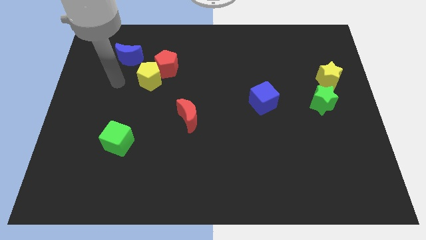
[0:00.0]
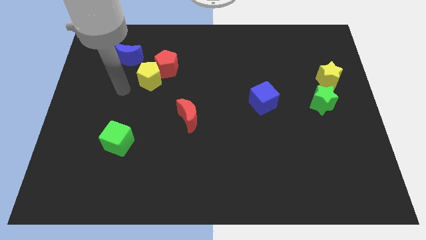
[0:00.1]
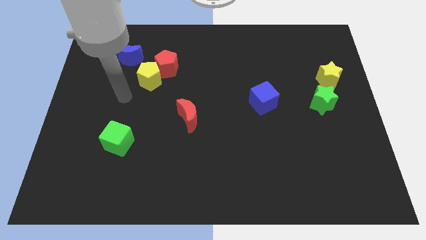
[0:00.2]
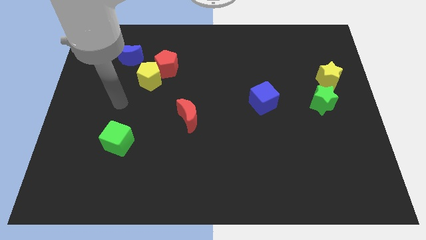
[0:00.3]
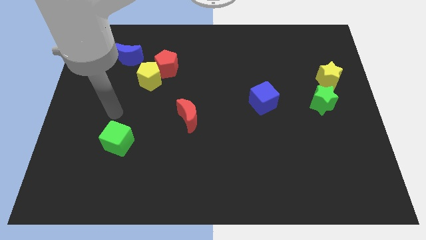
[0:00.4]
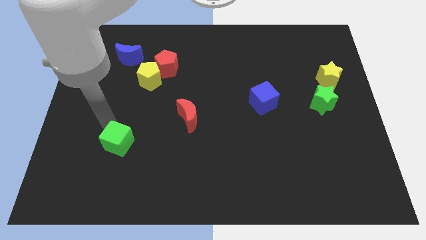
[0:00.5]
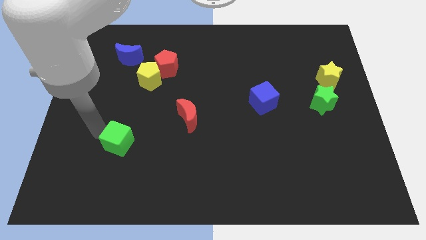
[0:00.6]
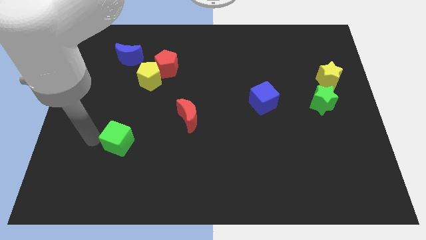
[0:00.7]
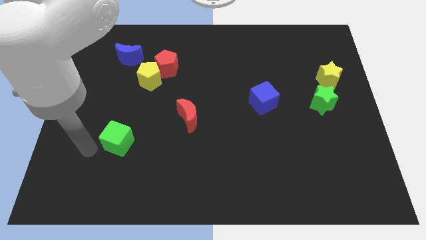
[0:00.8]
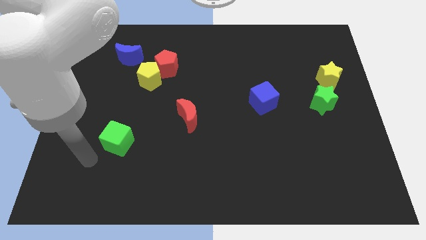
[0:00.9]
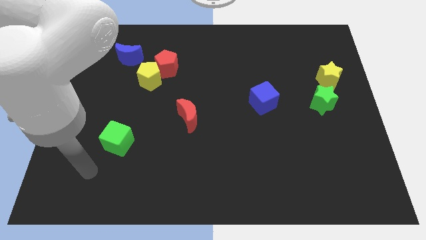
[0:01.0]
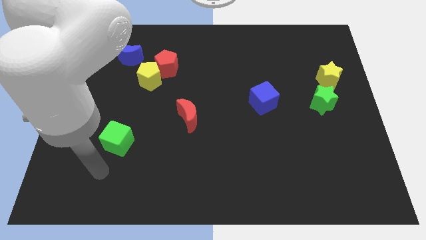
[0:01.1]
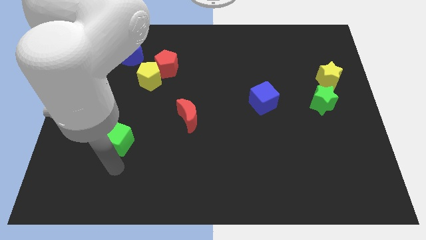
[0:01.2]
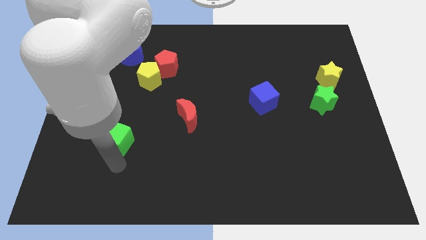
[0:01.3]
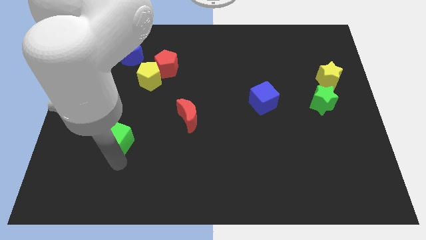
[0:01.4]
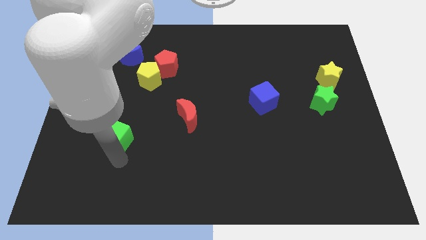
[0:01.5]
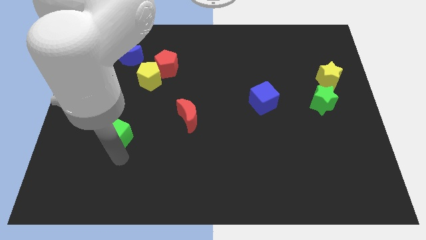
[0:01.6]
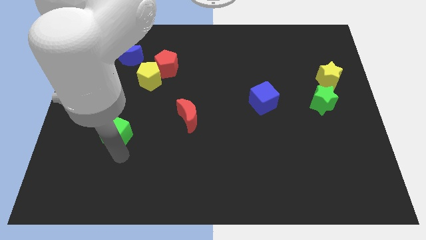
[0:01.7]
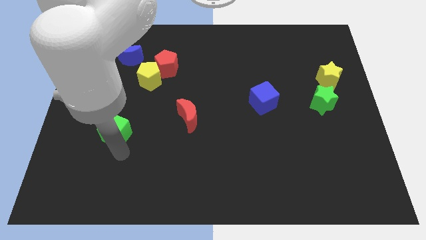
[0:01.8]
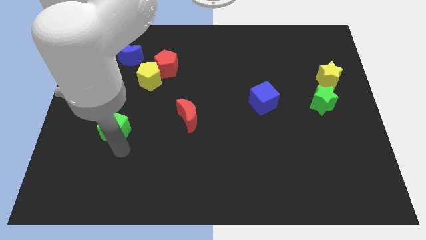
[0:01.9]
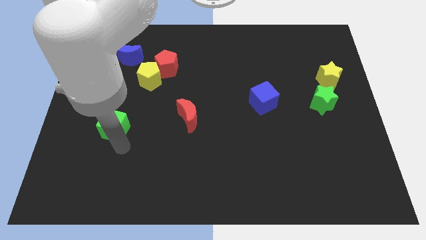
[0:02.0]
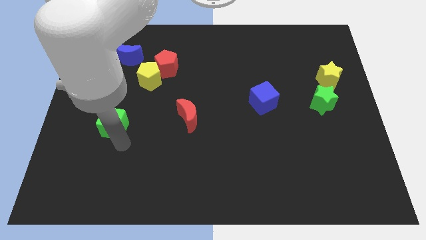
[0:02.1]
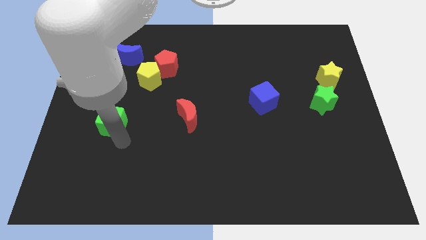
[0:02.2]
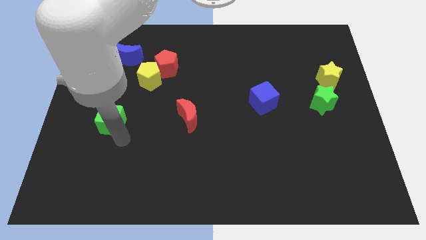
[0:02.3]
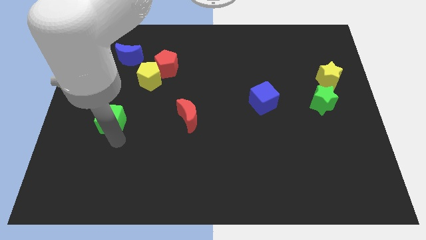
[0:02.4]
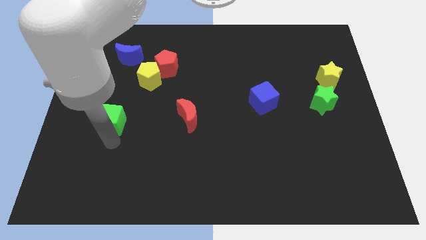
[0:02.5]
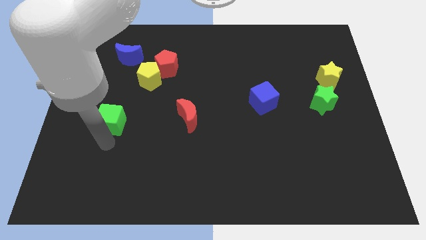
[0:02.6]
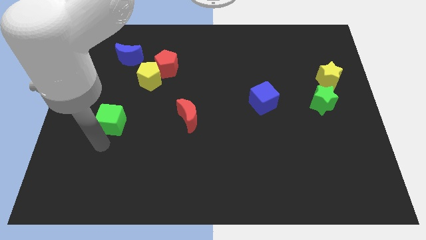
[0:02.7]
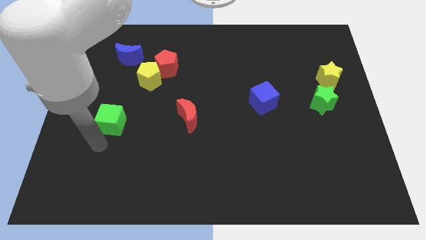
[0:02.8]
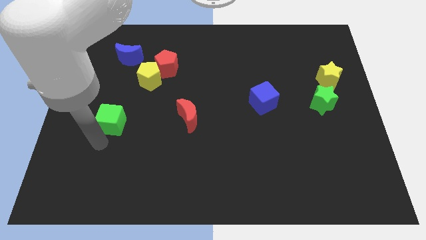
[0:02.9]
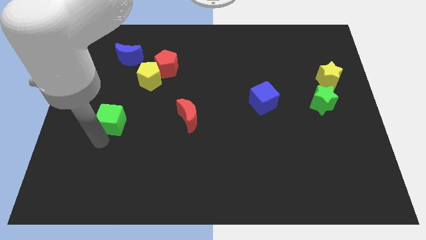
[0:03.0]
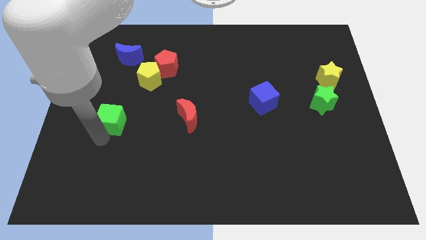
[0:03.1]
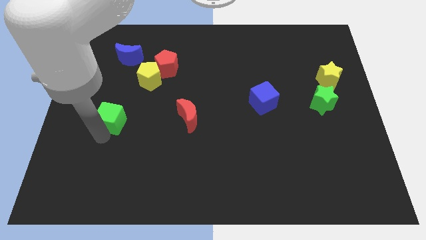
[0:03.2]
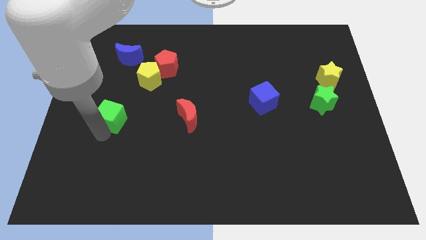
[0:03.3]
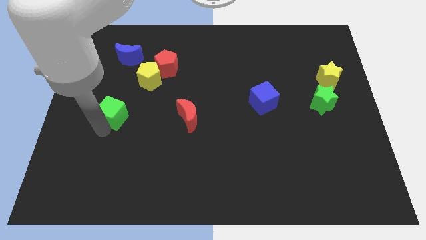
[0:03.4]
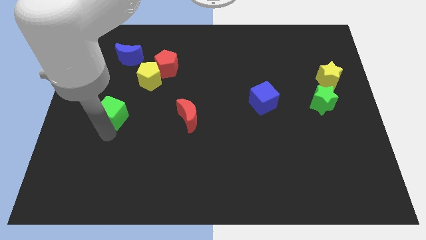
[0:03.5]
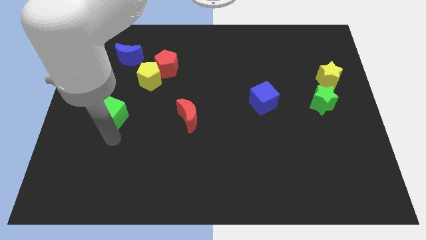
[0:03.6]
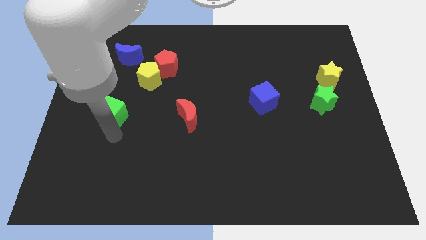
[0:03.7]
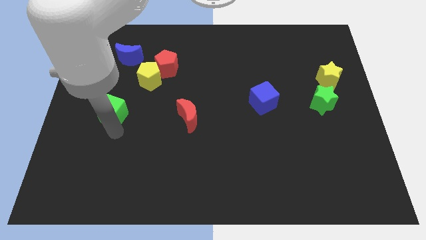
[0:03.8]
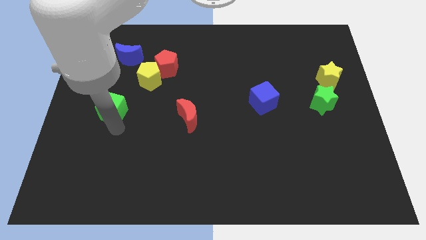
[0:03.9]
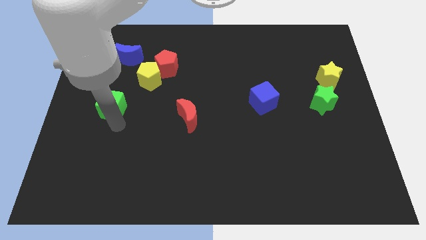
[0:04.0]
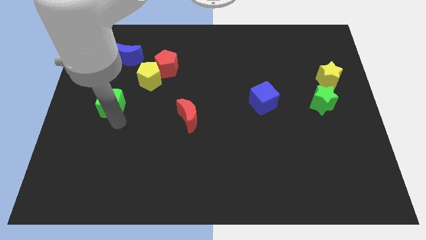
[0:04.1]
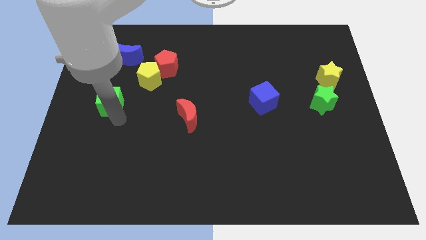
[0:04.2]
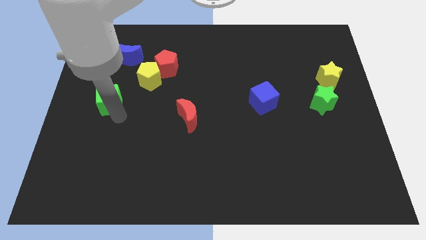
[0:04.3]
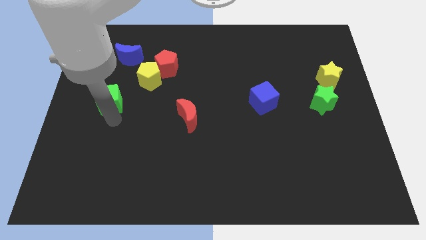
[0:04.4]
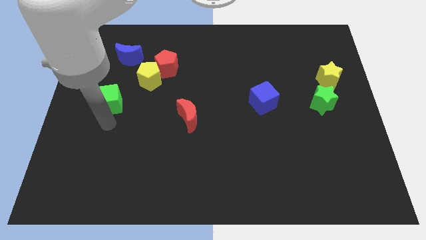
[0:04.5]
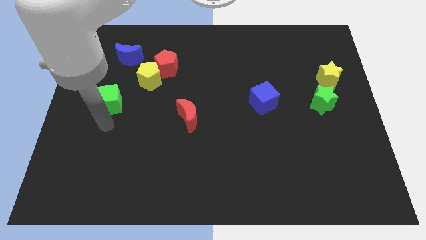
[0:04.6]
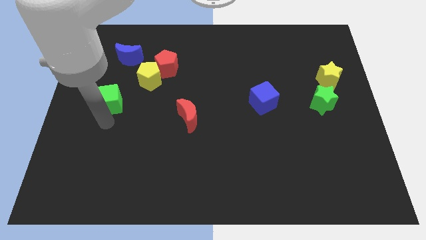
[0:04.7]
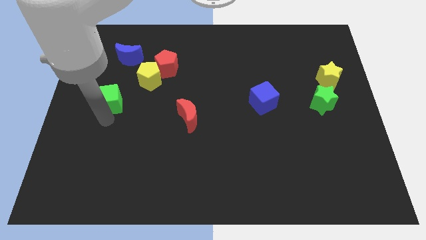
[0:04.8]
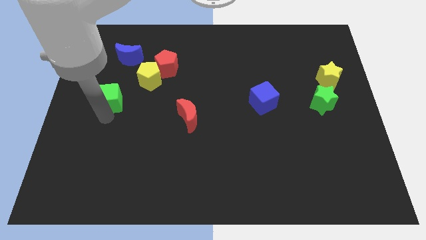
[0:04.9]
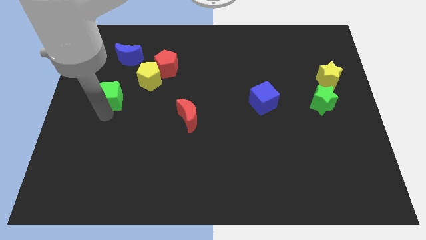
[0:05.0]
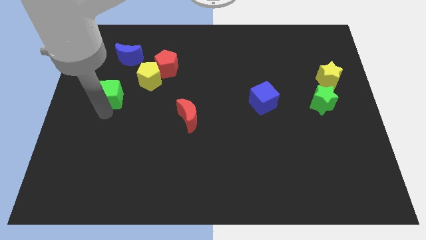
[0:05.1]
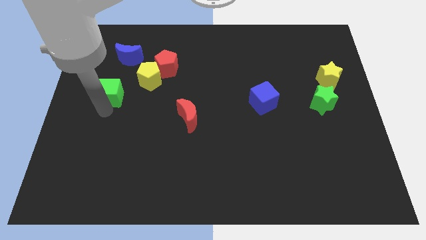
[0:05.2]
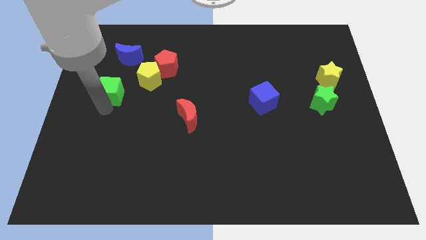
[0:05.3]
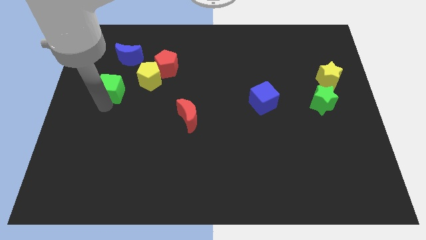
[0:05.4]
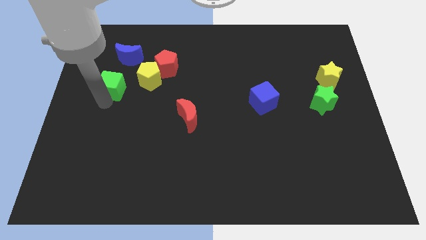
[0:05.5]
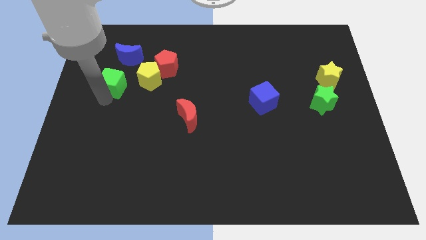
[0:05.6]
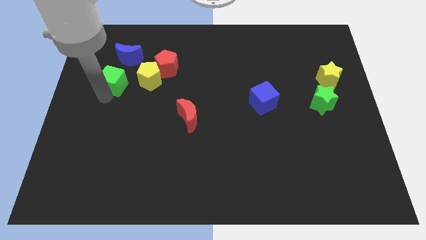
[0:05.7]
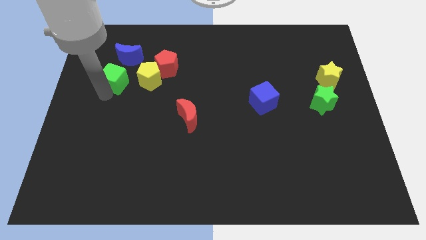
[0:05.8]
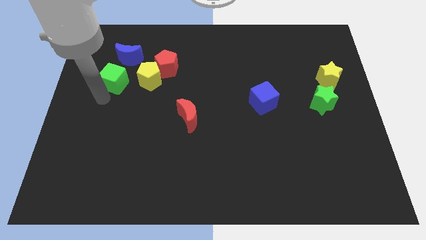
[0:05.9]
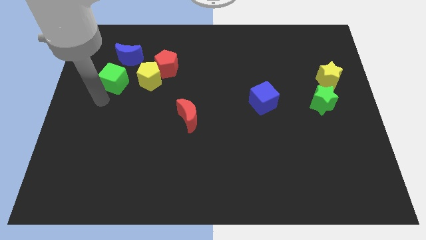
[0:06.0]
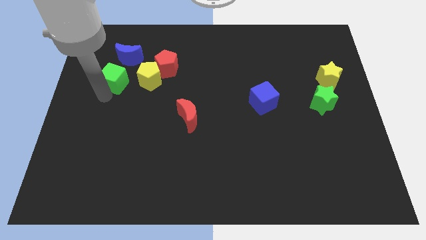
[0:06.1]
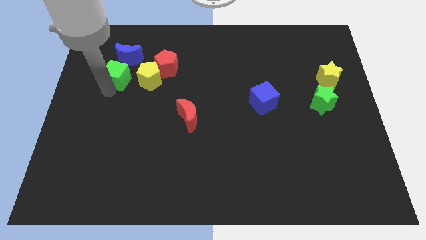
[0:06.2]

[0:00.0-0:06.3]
put the green cube to the left side of the red pentagon

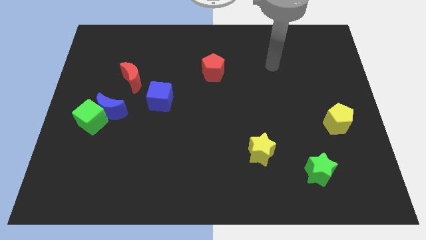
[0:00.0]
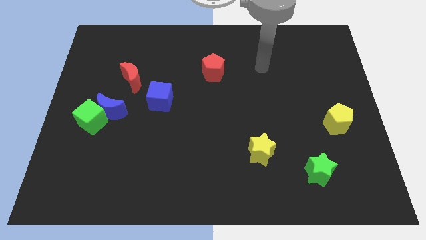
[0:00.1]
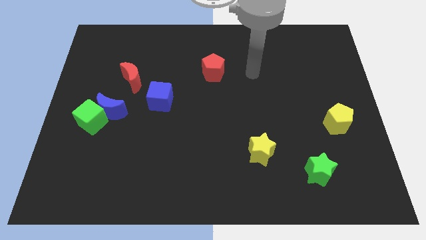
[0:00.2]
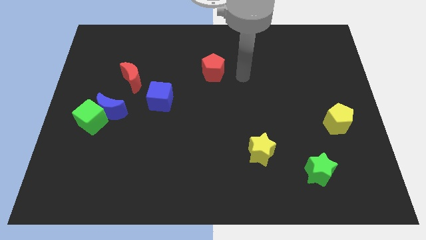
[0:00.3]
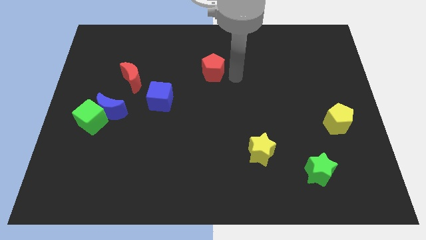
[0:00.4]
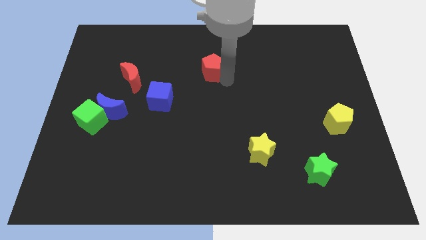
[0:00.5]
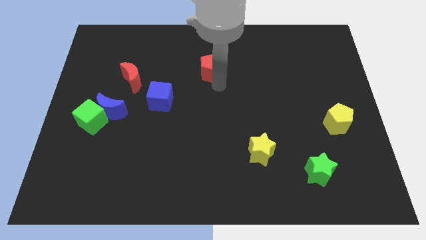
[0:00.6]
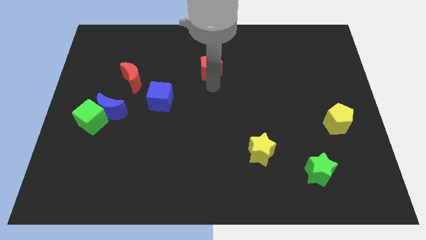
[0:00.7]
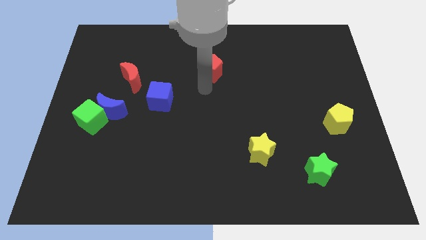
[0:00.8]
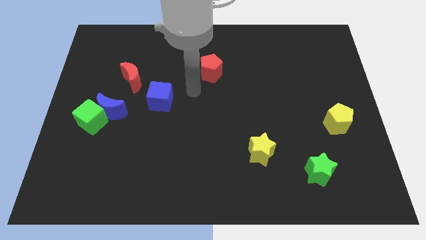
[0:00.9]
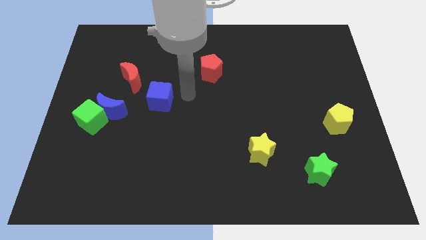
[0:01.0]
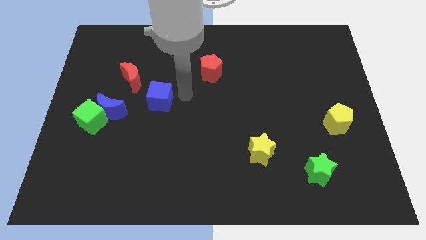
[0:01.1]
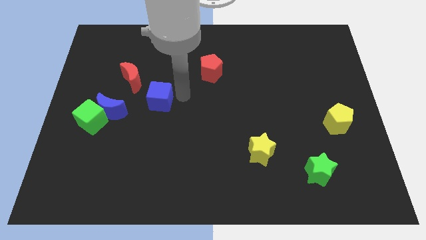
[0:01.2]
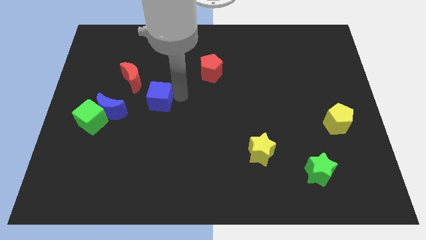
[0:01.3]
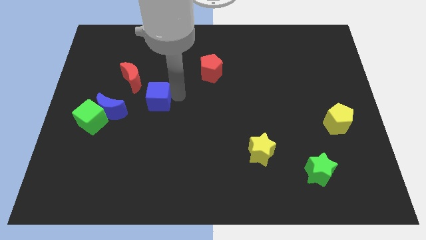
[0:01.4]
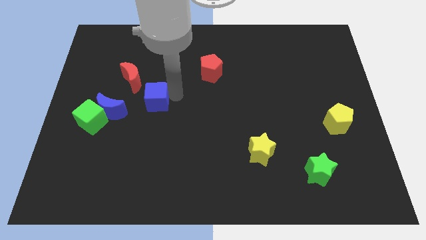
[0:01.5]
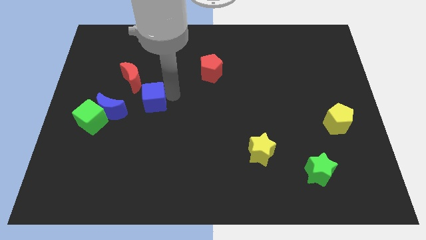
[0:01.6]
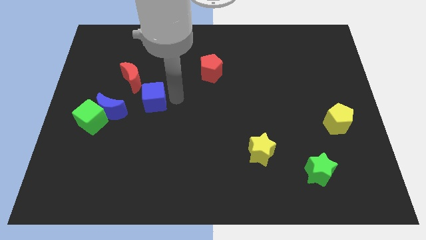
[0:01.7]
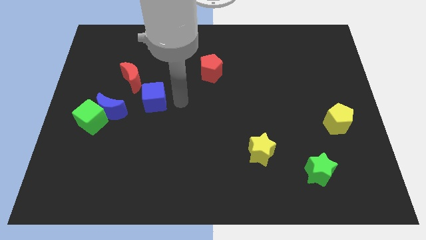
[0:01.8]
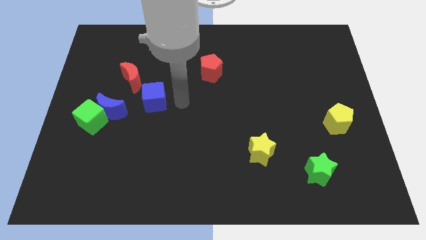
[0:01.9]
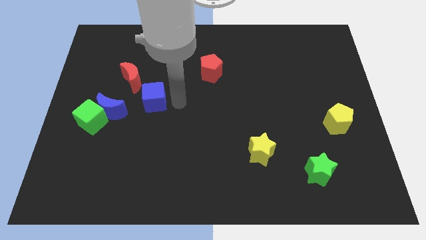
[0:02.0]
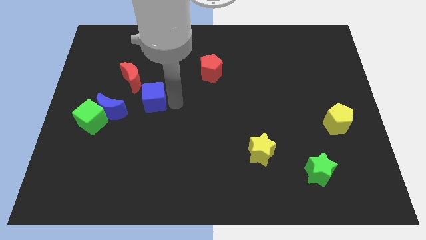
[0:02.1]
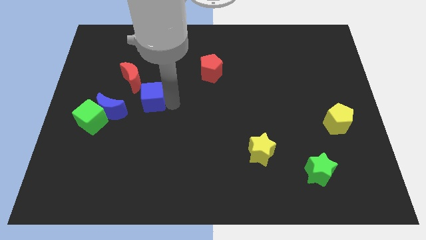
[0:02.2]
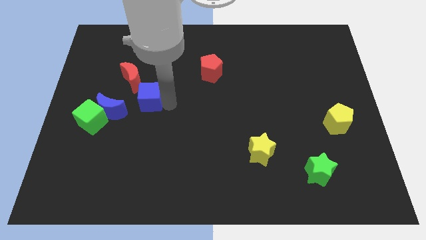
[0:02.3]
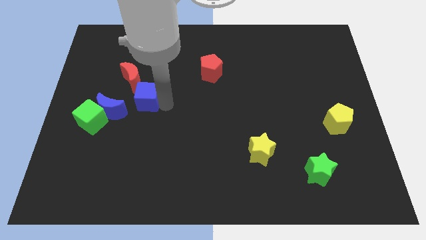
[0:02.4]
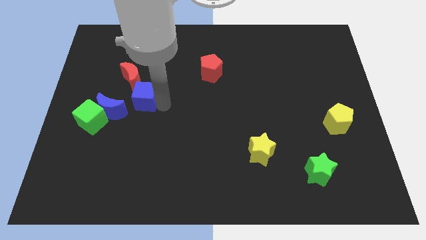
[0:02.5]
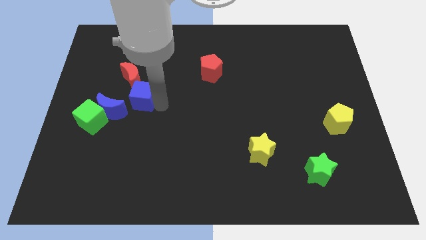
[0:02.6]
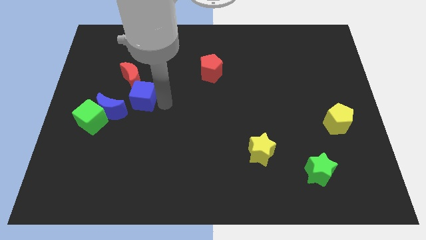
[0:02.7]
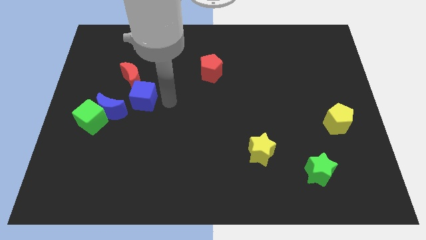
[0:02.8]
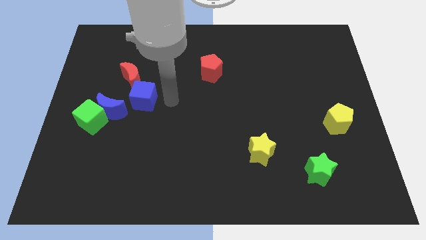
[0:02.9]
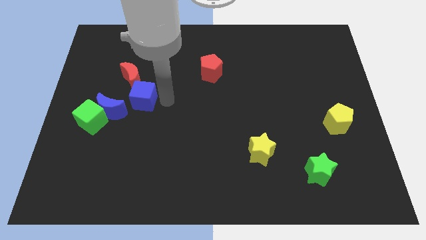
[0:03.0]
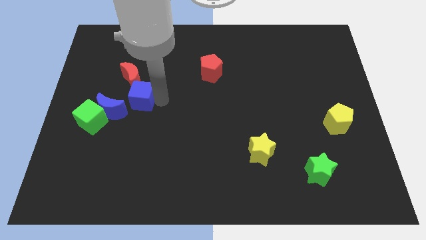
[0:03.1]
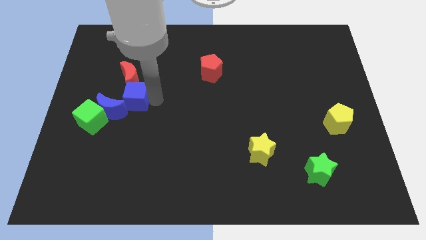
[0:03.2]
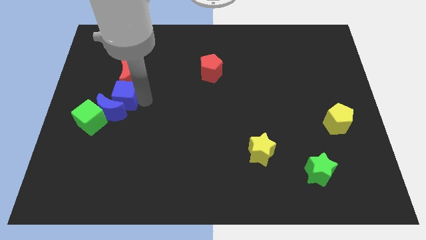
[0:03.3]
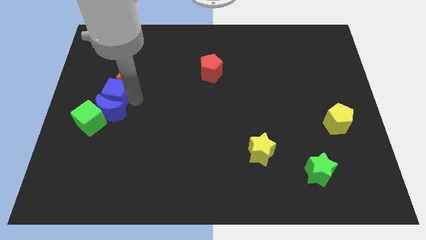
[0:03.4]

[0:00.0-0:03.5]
put the blue cube to the top left side of the blue moon
